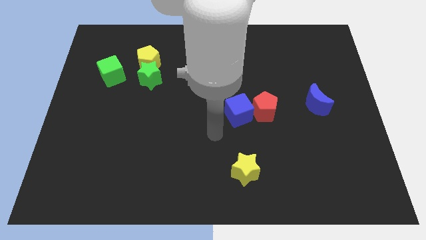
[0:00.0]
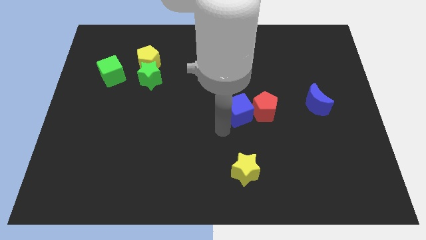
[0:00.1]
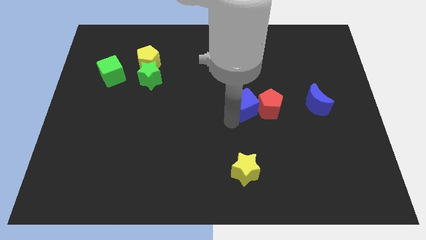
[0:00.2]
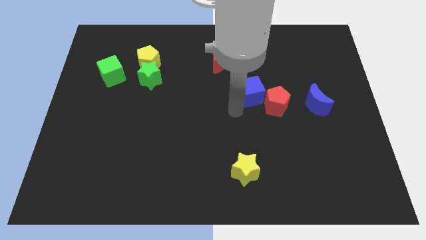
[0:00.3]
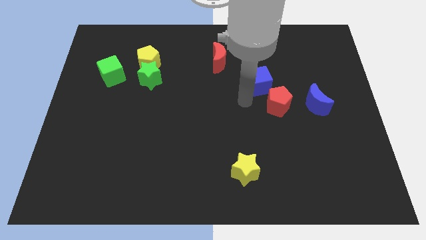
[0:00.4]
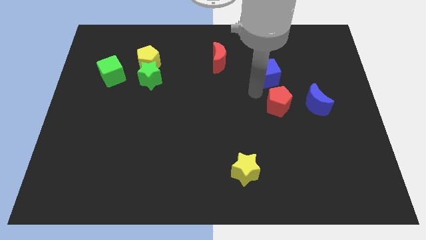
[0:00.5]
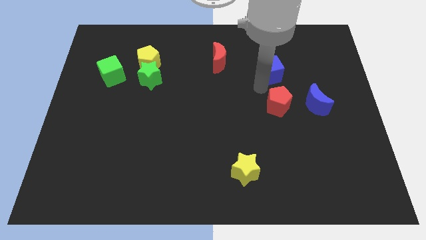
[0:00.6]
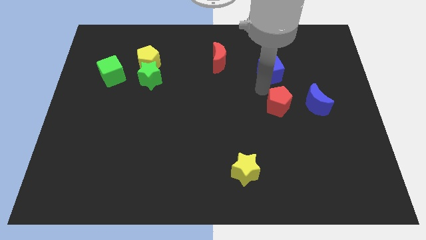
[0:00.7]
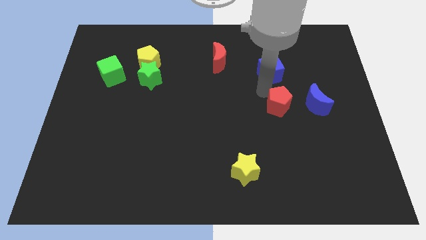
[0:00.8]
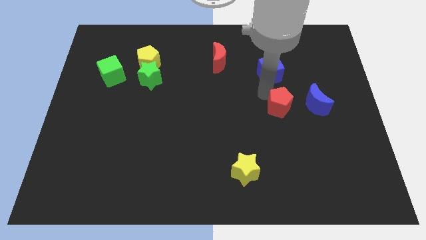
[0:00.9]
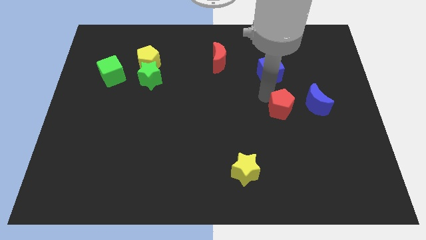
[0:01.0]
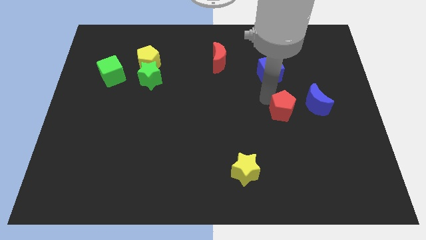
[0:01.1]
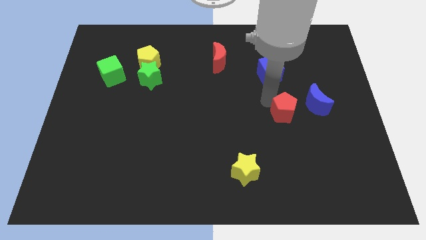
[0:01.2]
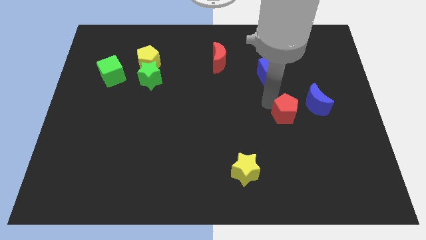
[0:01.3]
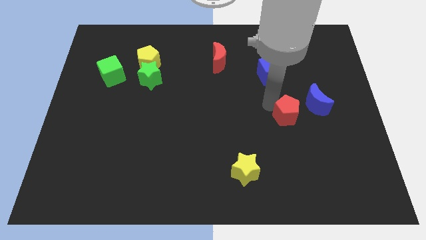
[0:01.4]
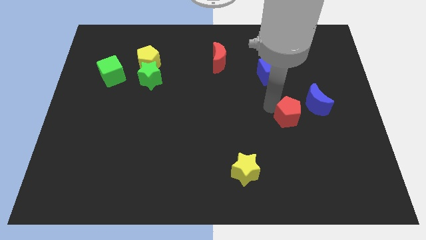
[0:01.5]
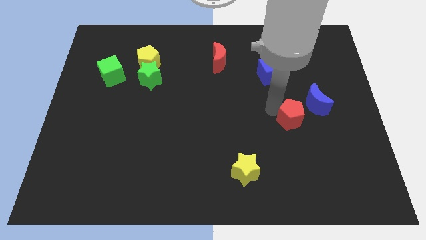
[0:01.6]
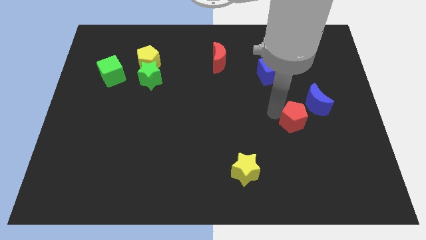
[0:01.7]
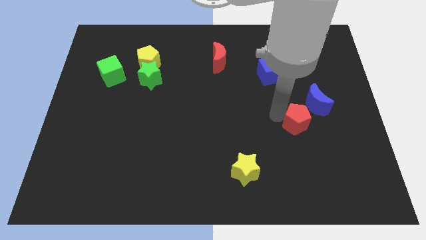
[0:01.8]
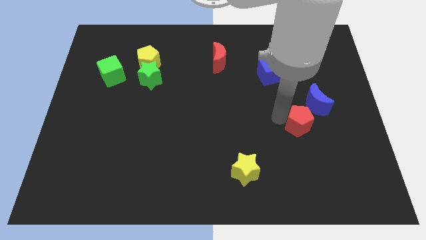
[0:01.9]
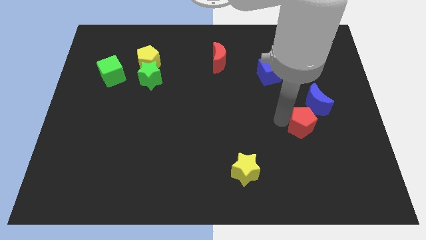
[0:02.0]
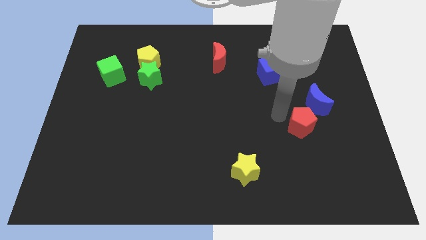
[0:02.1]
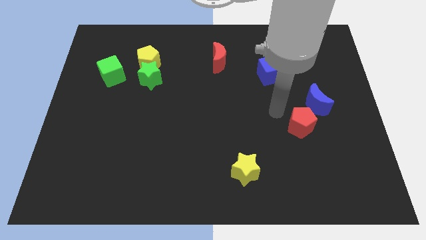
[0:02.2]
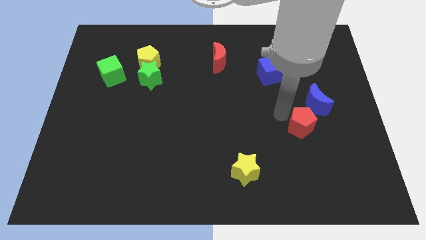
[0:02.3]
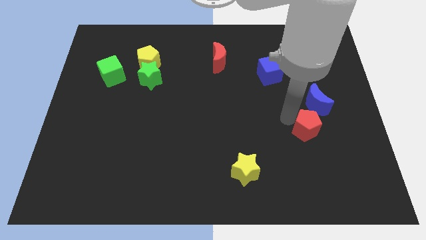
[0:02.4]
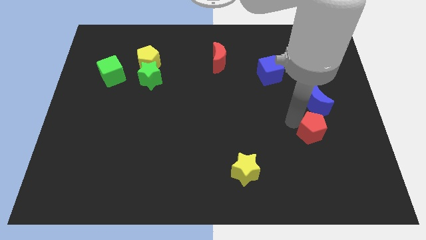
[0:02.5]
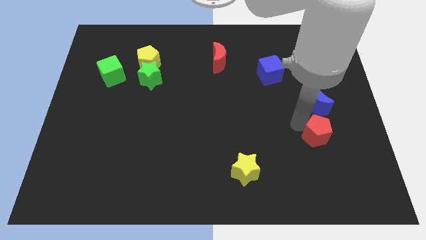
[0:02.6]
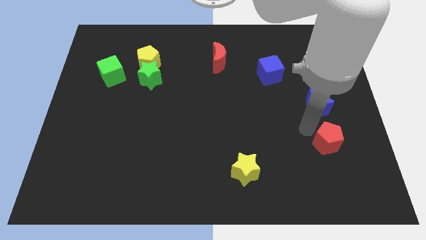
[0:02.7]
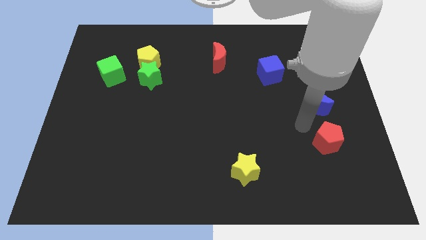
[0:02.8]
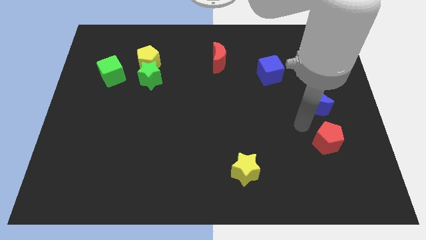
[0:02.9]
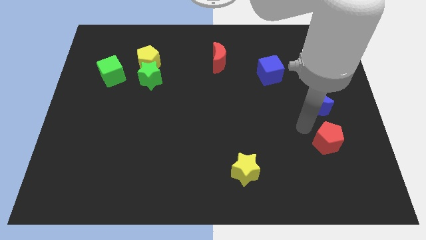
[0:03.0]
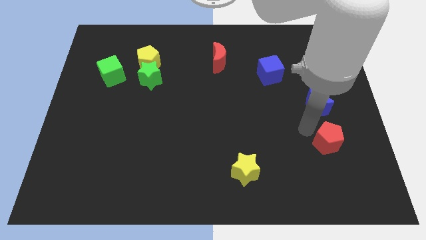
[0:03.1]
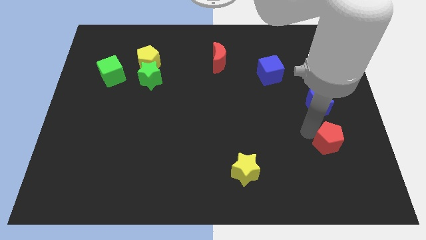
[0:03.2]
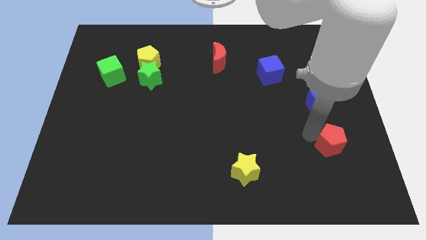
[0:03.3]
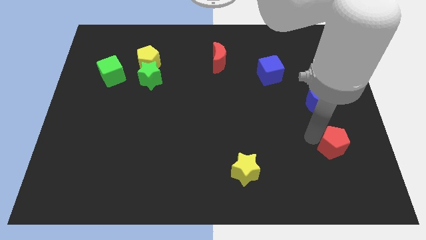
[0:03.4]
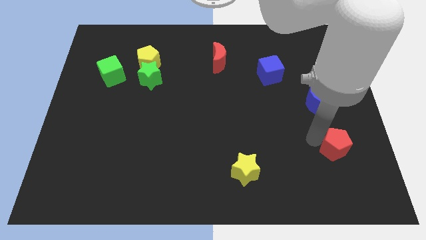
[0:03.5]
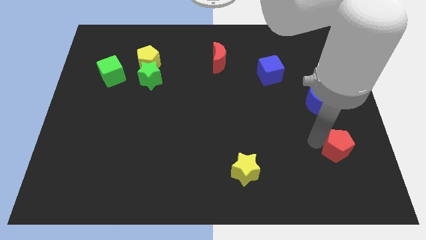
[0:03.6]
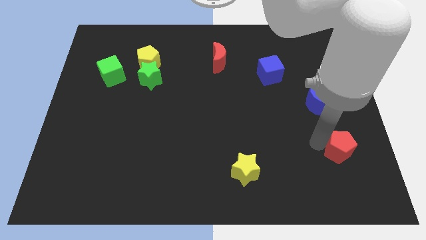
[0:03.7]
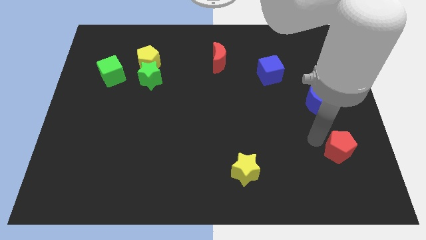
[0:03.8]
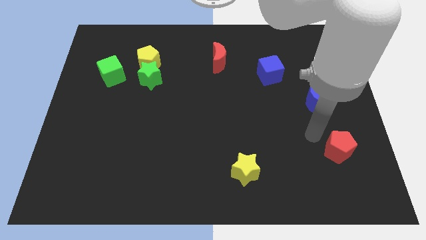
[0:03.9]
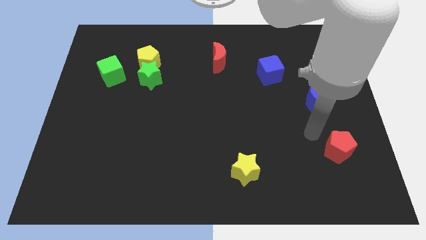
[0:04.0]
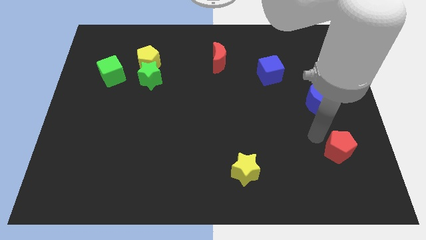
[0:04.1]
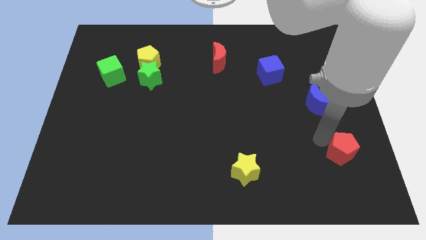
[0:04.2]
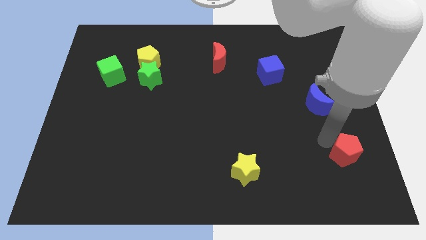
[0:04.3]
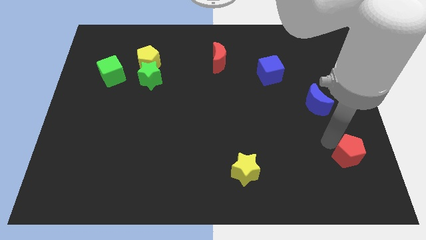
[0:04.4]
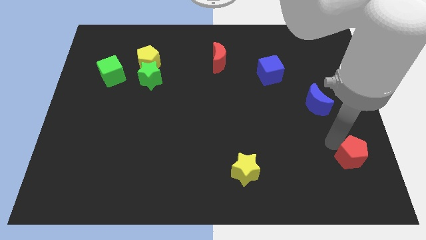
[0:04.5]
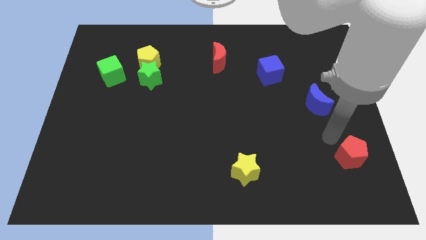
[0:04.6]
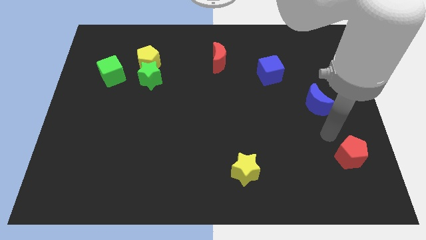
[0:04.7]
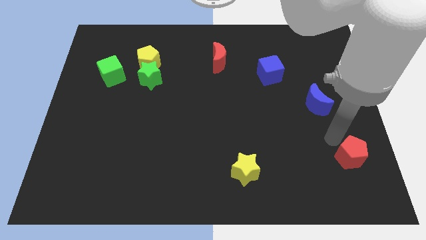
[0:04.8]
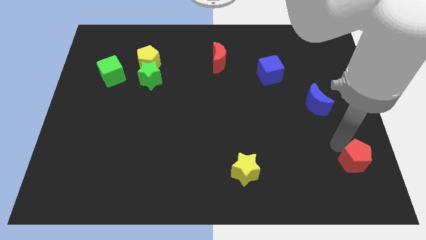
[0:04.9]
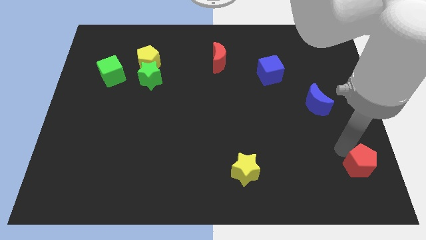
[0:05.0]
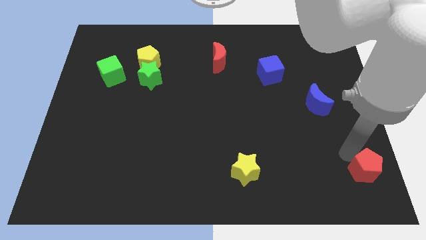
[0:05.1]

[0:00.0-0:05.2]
move the red pentagon to the bottom right of the board

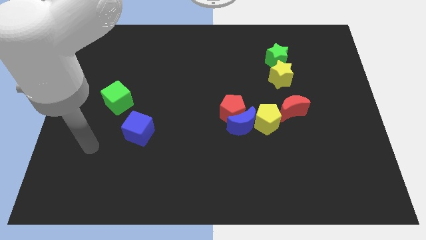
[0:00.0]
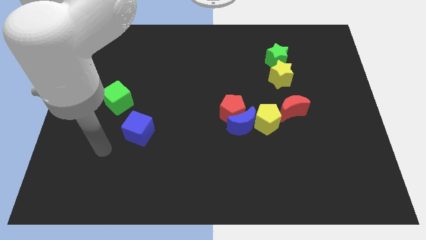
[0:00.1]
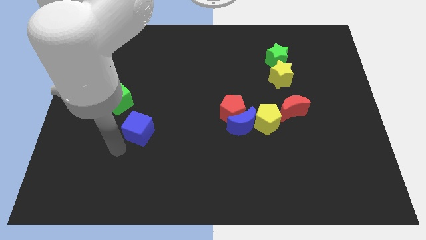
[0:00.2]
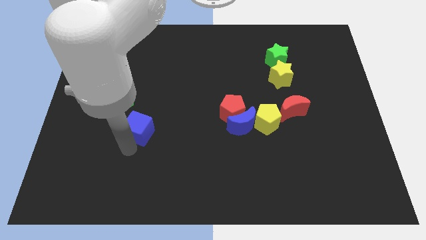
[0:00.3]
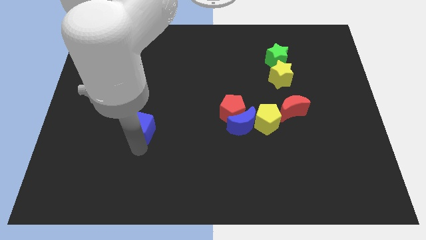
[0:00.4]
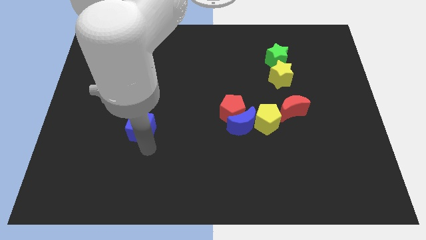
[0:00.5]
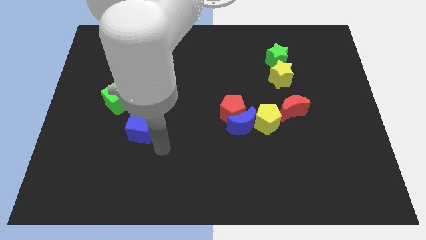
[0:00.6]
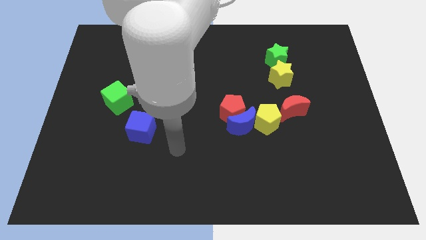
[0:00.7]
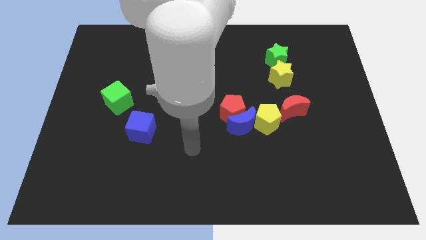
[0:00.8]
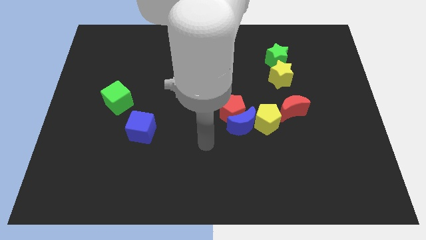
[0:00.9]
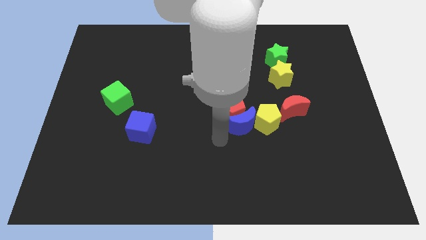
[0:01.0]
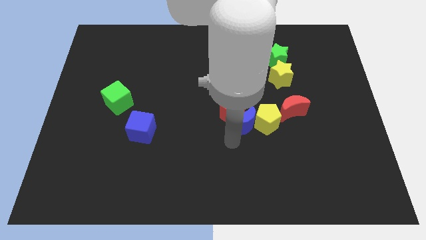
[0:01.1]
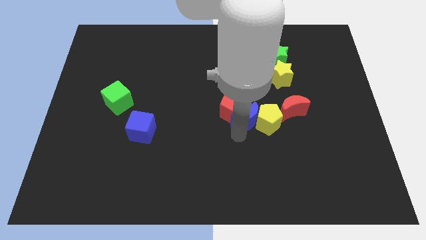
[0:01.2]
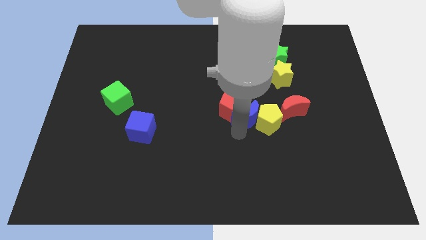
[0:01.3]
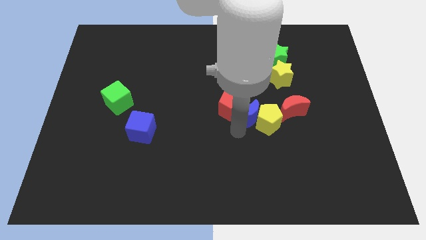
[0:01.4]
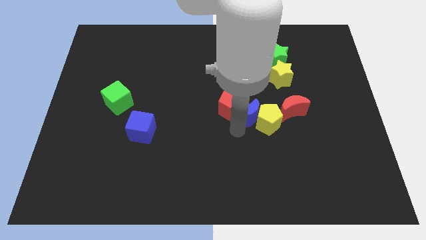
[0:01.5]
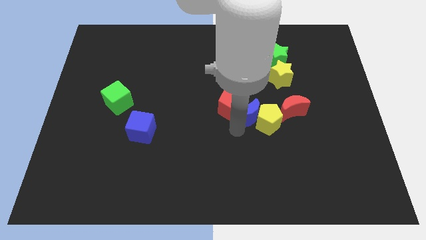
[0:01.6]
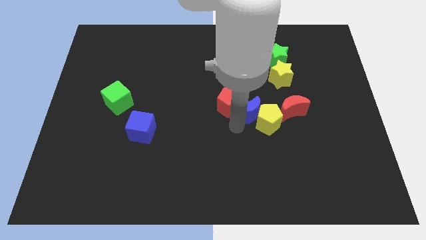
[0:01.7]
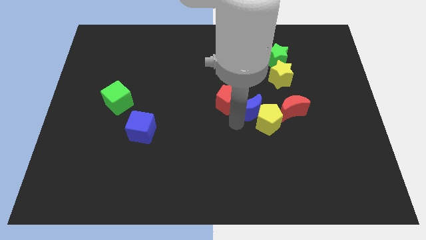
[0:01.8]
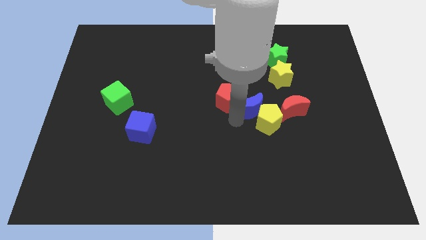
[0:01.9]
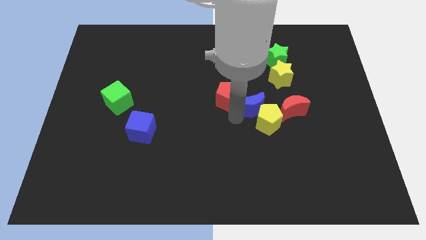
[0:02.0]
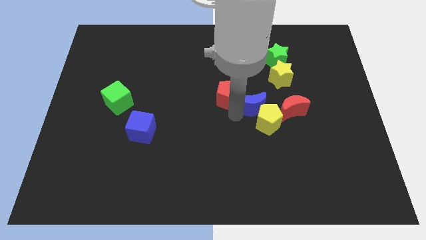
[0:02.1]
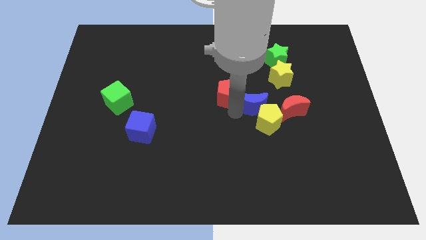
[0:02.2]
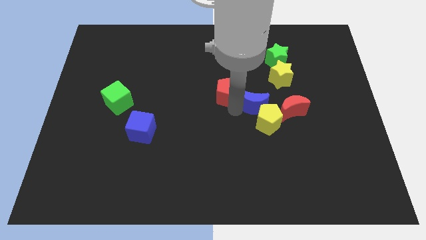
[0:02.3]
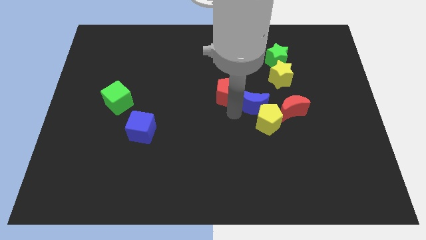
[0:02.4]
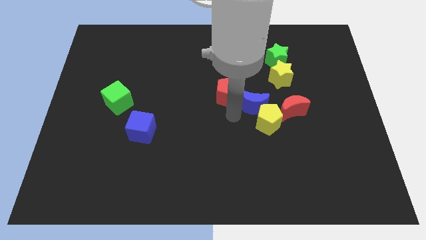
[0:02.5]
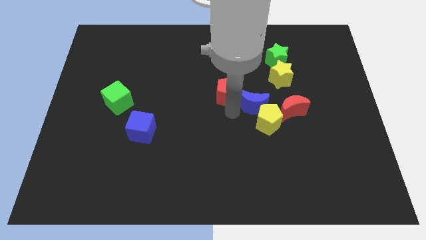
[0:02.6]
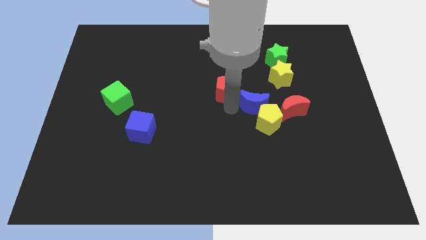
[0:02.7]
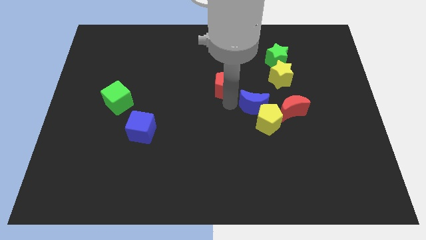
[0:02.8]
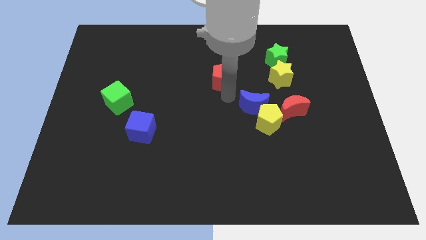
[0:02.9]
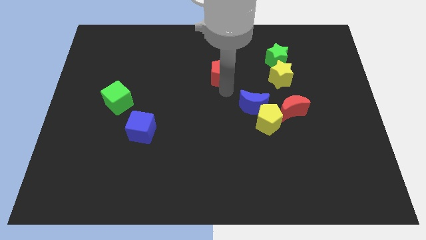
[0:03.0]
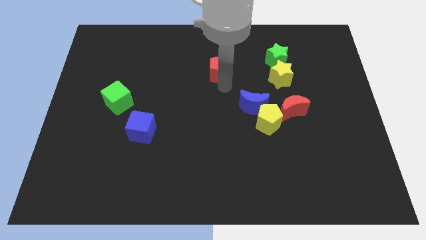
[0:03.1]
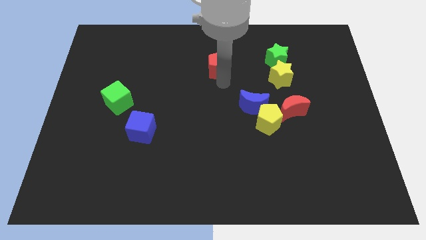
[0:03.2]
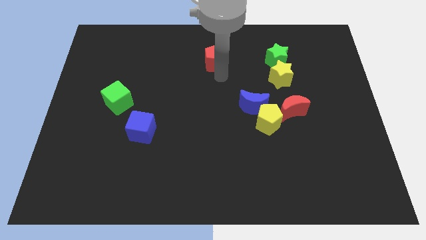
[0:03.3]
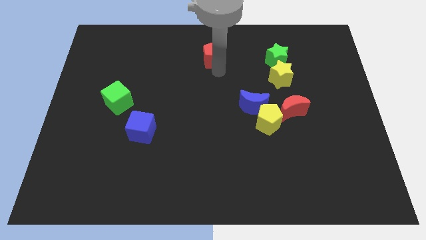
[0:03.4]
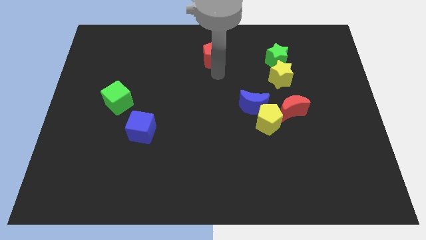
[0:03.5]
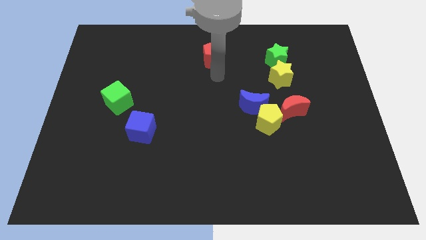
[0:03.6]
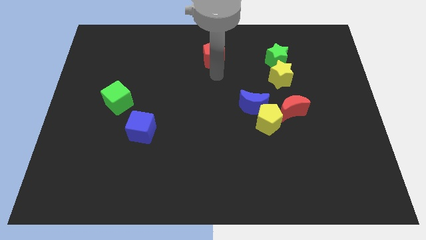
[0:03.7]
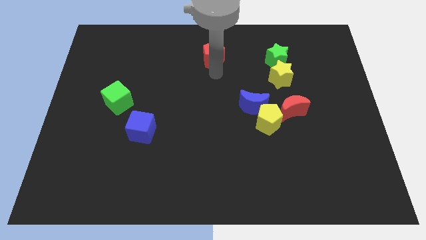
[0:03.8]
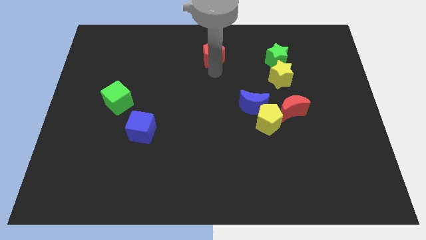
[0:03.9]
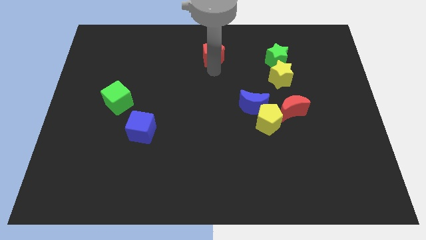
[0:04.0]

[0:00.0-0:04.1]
slide the red pentagon to the towards your base
